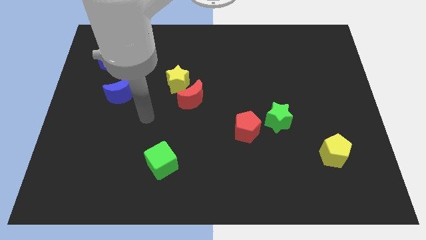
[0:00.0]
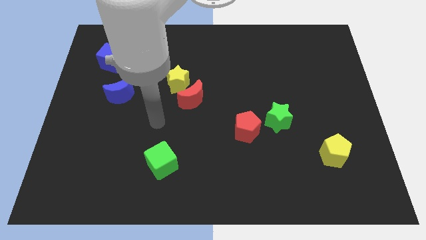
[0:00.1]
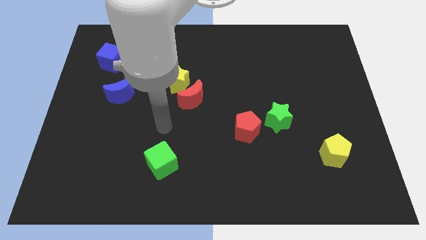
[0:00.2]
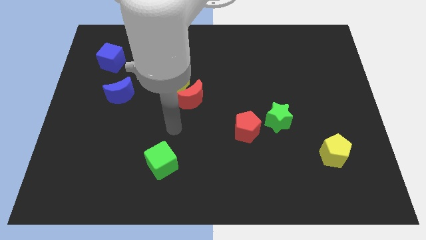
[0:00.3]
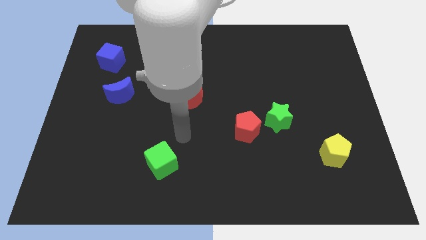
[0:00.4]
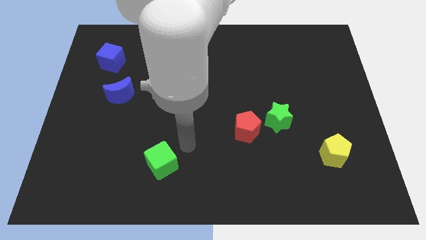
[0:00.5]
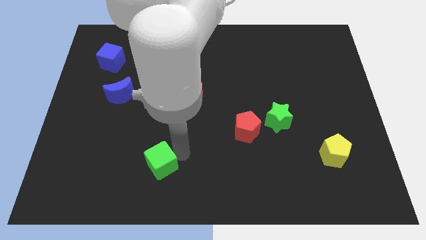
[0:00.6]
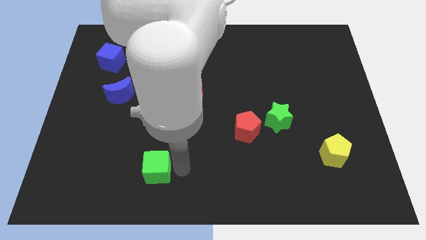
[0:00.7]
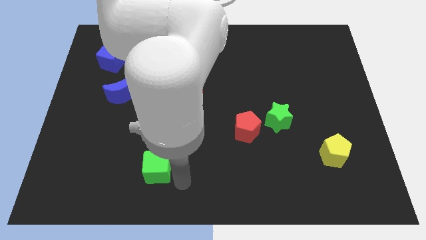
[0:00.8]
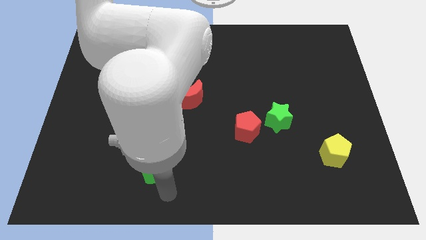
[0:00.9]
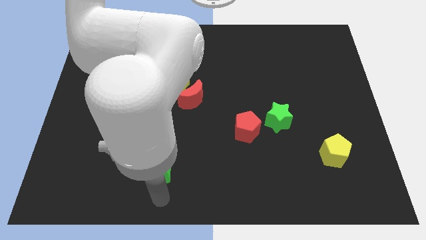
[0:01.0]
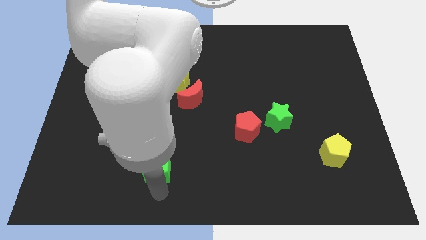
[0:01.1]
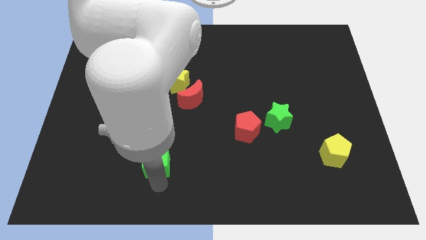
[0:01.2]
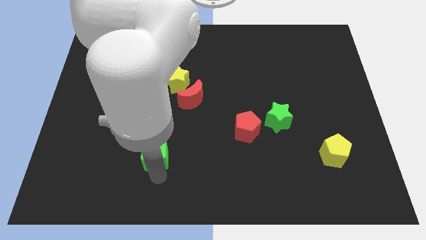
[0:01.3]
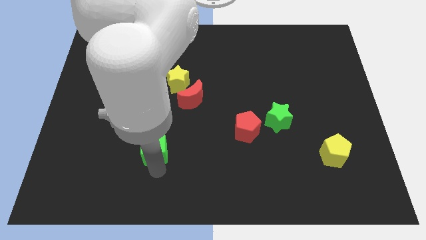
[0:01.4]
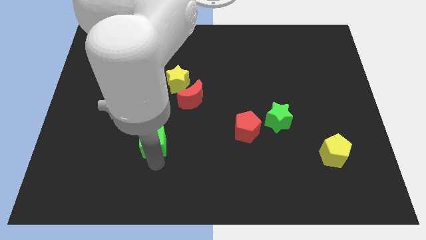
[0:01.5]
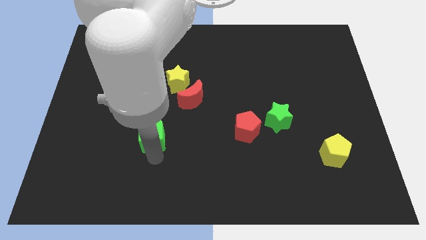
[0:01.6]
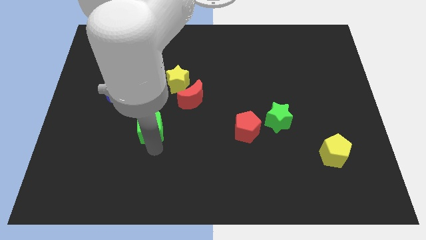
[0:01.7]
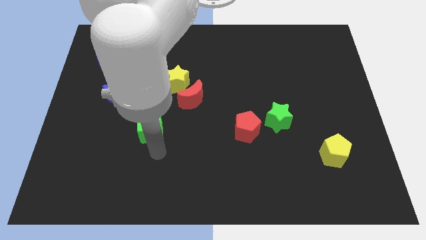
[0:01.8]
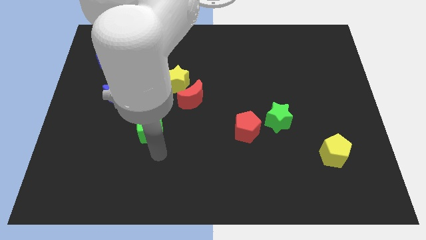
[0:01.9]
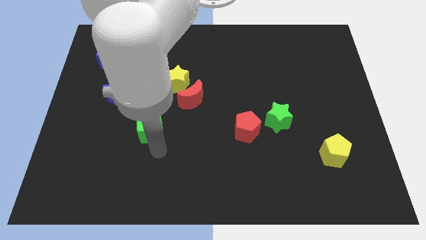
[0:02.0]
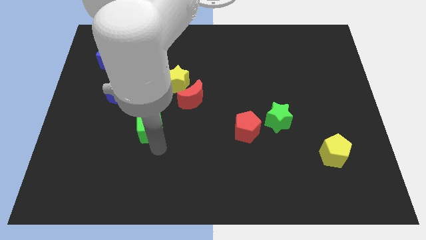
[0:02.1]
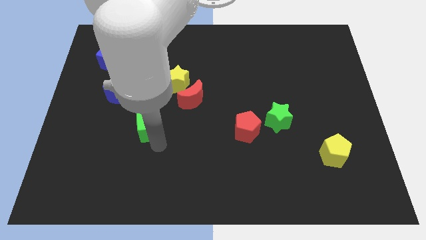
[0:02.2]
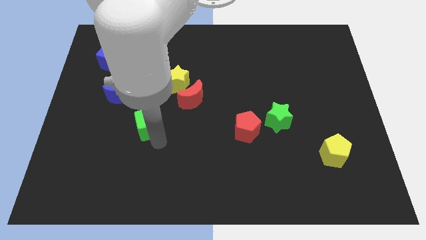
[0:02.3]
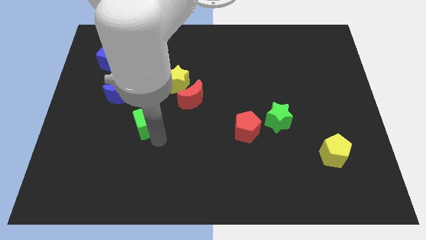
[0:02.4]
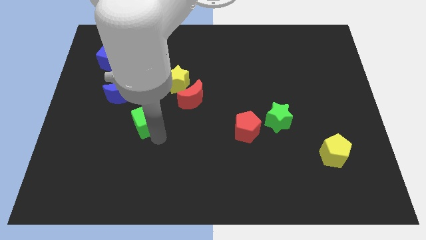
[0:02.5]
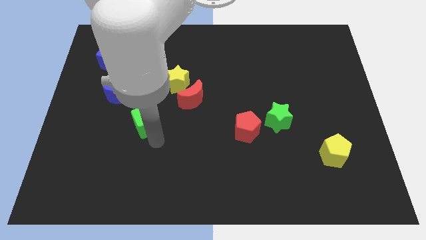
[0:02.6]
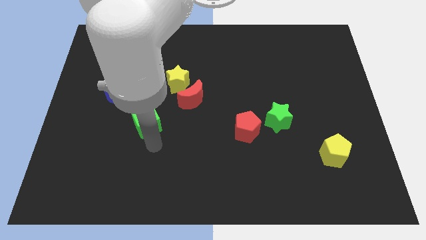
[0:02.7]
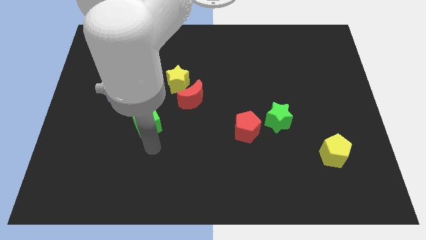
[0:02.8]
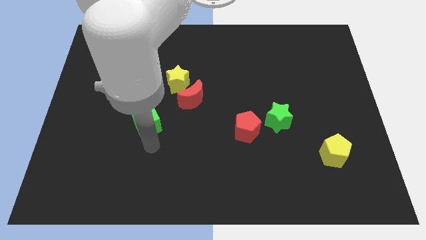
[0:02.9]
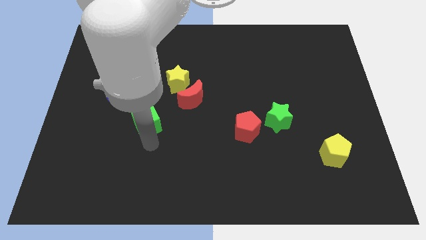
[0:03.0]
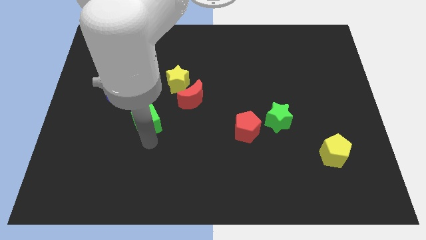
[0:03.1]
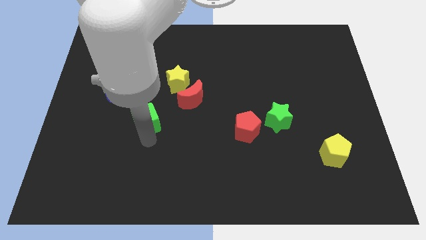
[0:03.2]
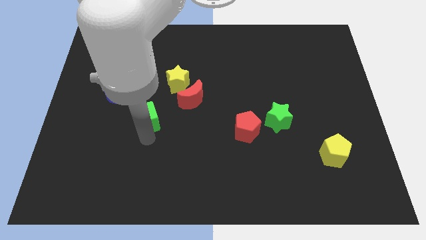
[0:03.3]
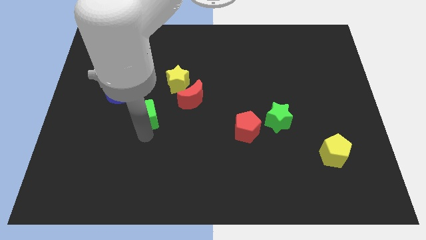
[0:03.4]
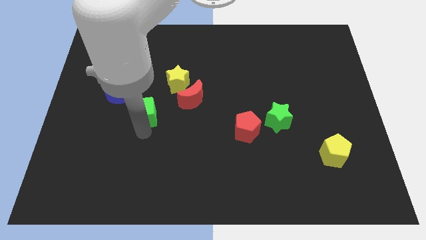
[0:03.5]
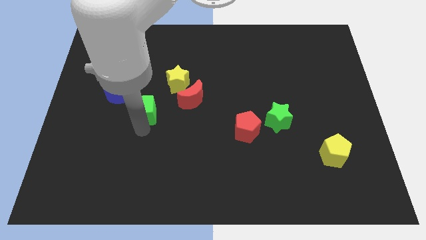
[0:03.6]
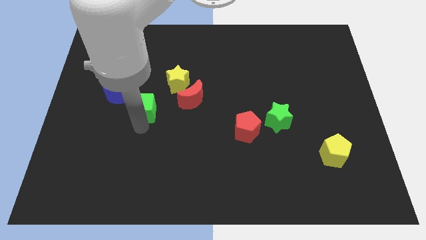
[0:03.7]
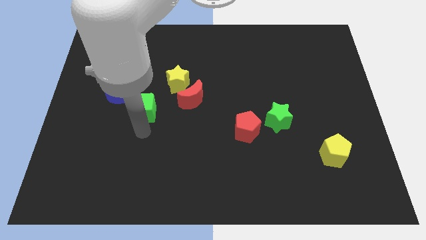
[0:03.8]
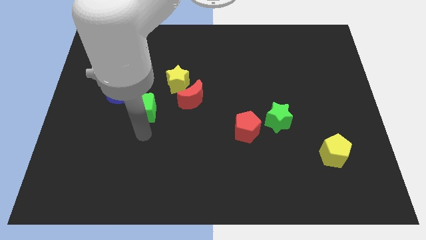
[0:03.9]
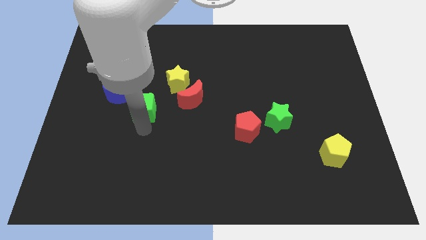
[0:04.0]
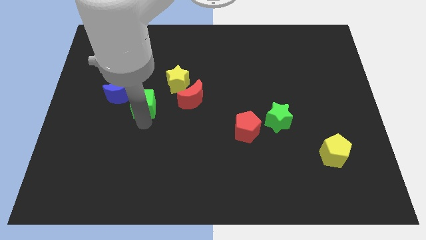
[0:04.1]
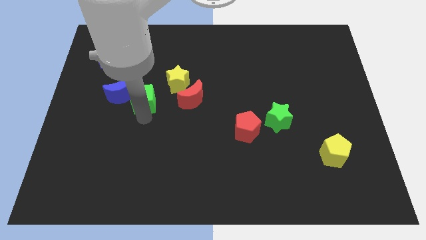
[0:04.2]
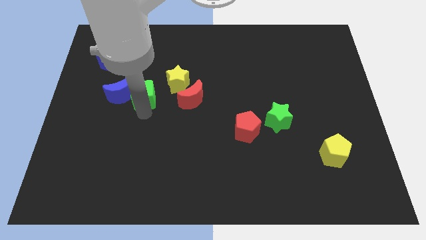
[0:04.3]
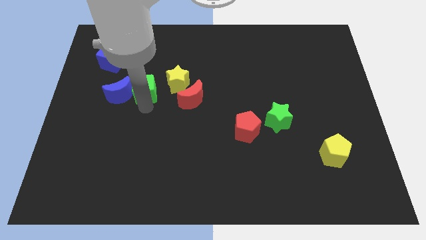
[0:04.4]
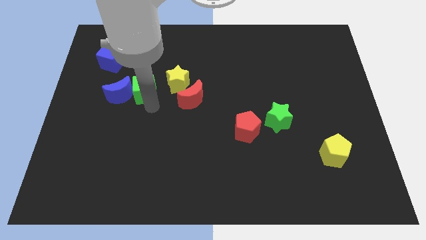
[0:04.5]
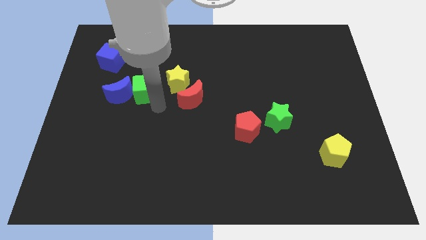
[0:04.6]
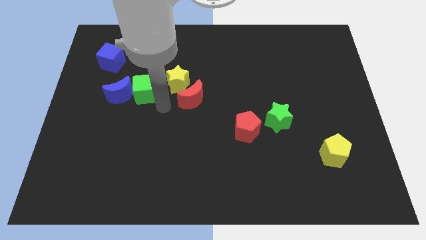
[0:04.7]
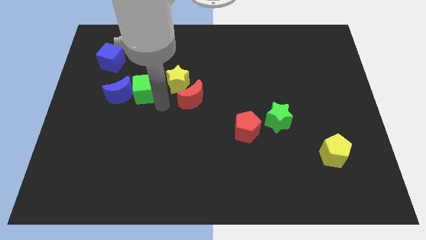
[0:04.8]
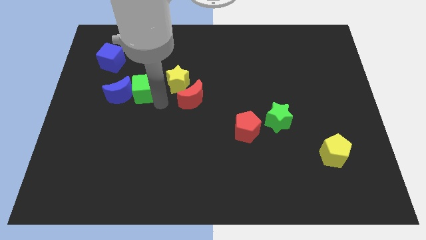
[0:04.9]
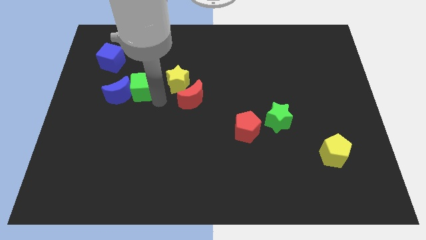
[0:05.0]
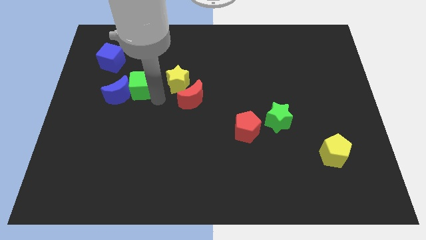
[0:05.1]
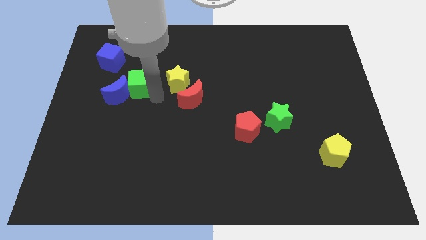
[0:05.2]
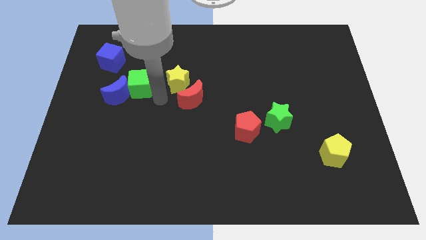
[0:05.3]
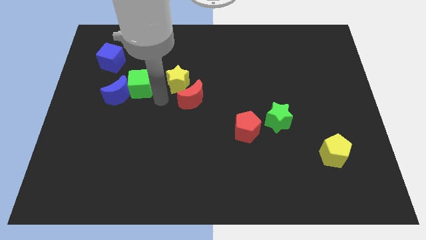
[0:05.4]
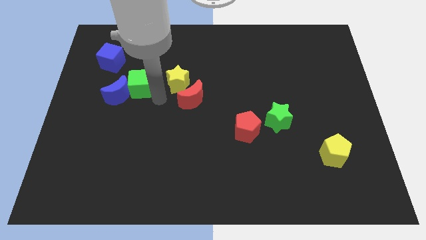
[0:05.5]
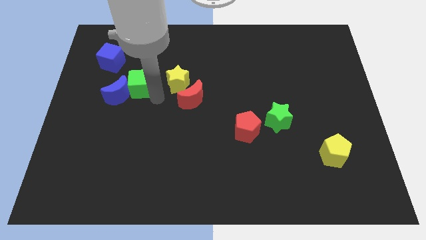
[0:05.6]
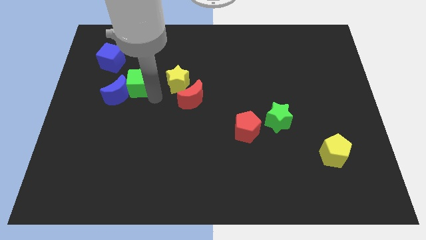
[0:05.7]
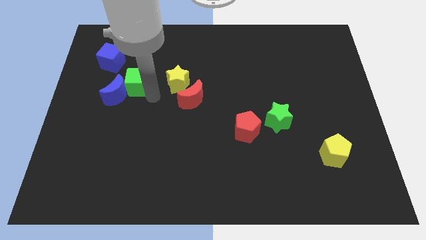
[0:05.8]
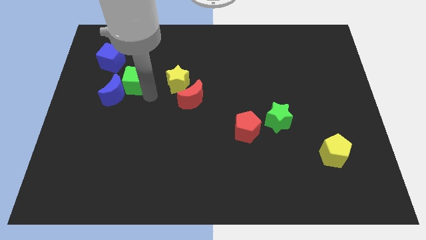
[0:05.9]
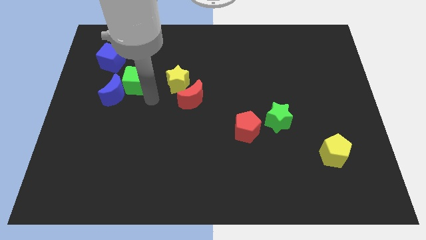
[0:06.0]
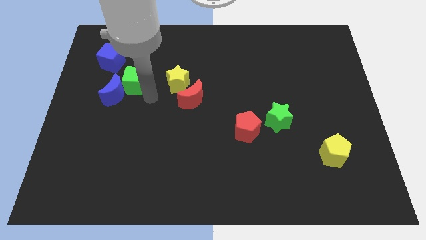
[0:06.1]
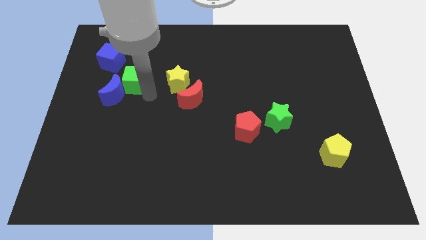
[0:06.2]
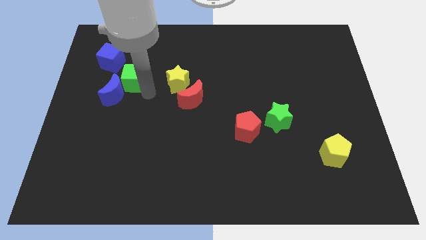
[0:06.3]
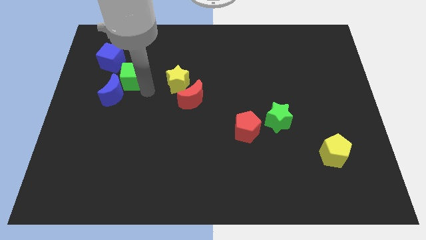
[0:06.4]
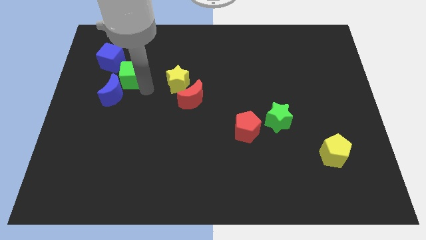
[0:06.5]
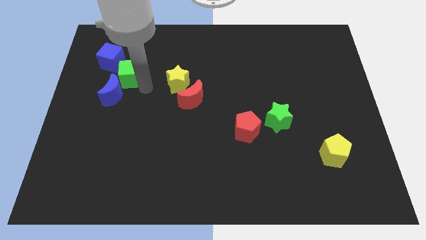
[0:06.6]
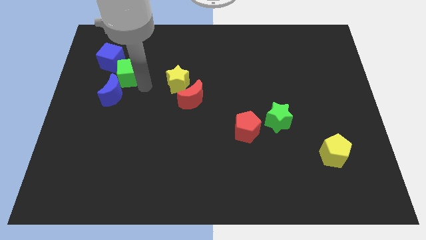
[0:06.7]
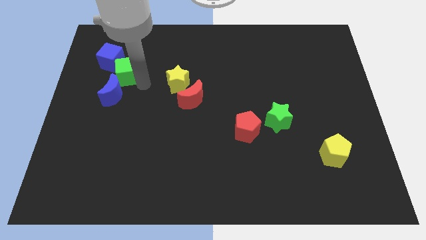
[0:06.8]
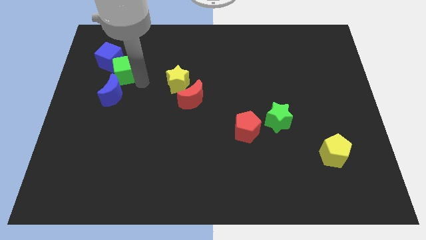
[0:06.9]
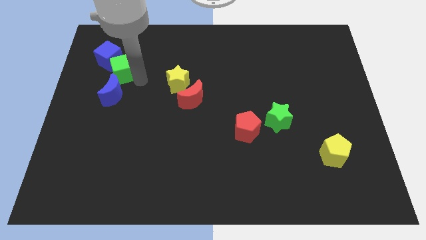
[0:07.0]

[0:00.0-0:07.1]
slide the green cube towards the blue cube

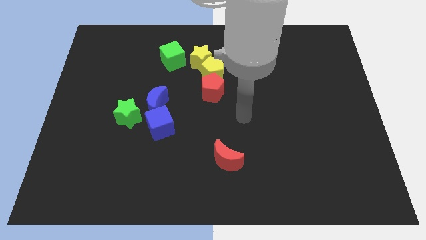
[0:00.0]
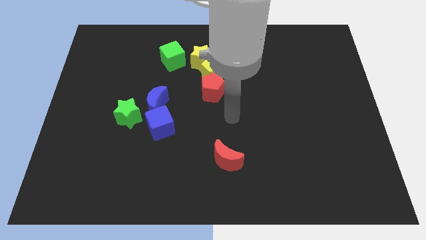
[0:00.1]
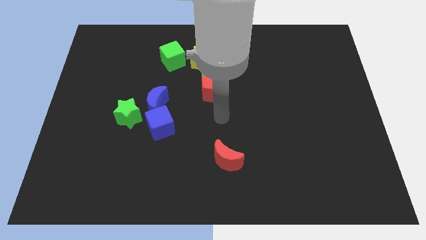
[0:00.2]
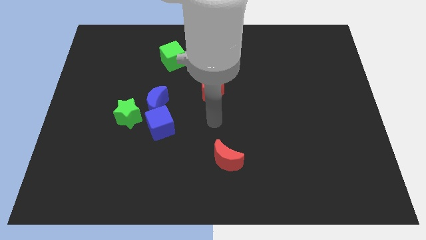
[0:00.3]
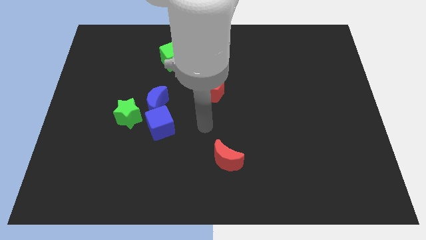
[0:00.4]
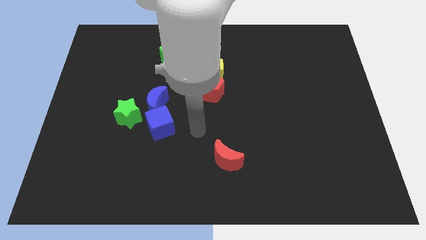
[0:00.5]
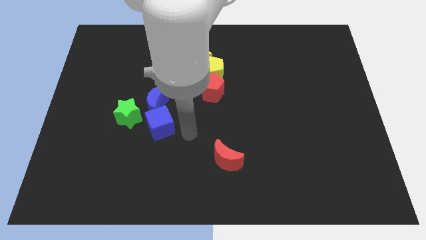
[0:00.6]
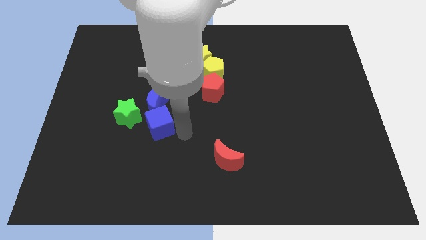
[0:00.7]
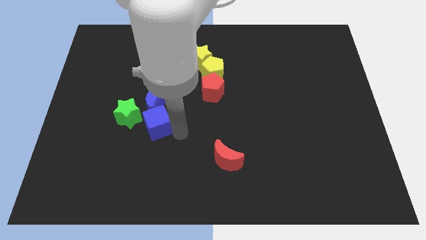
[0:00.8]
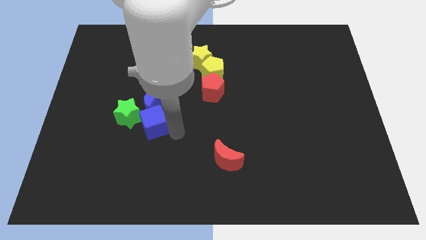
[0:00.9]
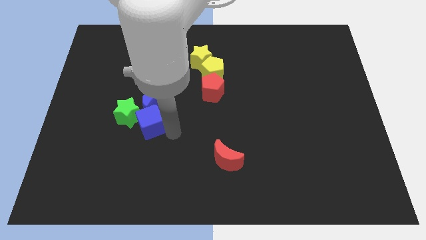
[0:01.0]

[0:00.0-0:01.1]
put the blue cube close to the green star
